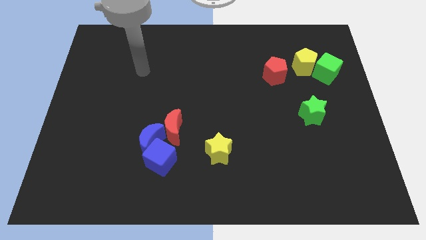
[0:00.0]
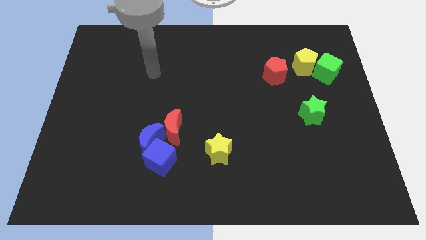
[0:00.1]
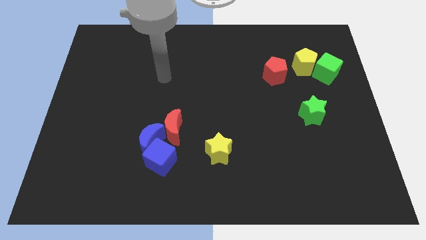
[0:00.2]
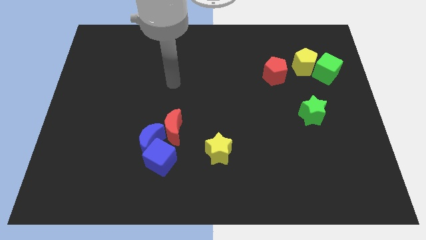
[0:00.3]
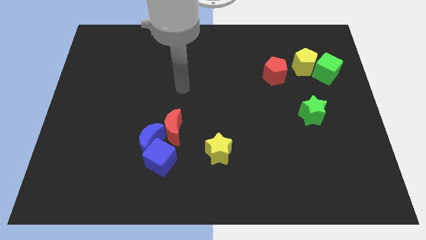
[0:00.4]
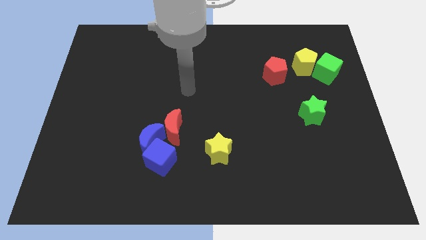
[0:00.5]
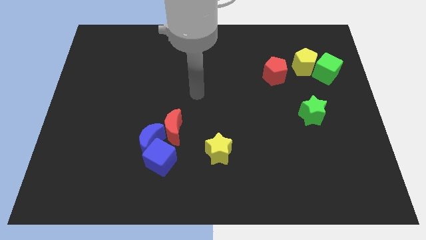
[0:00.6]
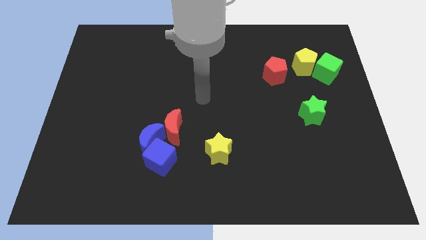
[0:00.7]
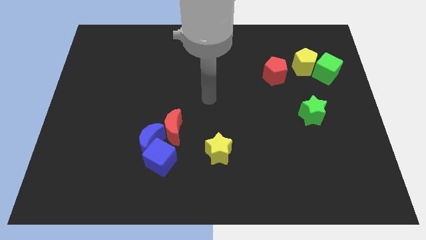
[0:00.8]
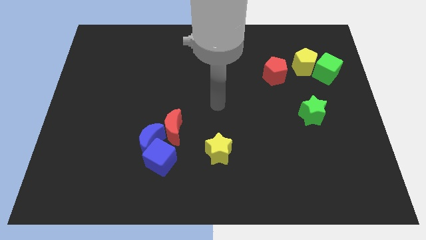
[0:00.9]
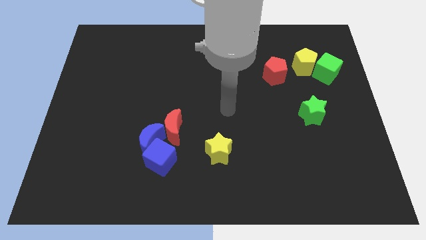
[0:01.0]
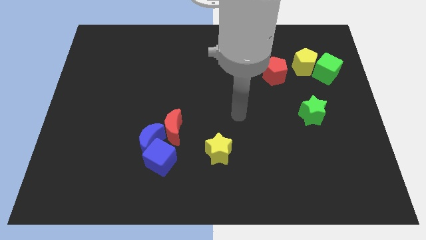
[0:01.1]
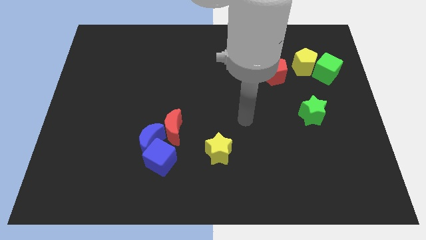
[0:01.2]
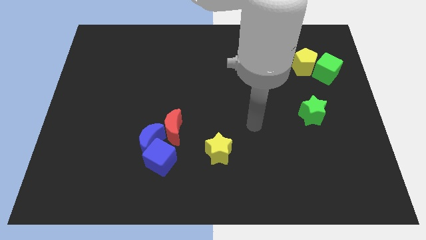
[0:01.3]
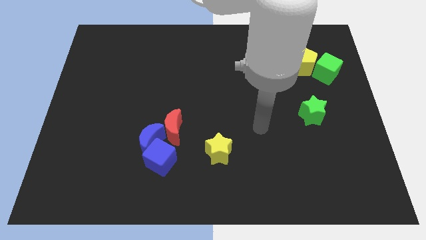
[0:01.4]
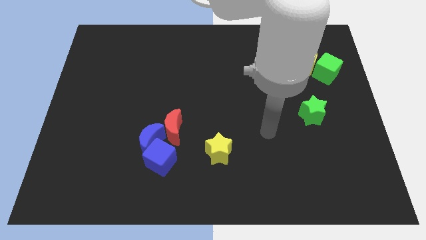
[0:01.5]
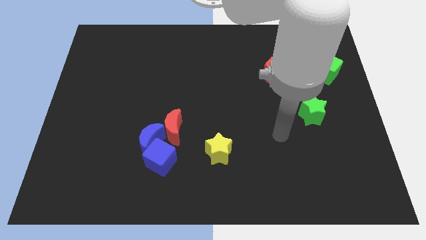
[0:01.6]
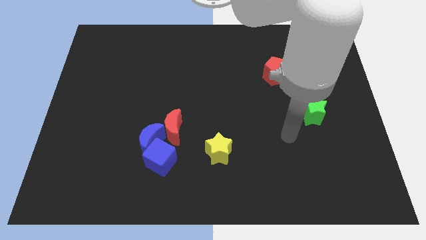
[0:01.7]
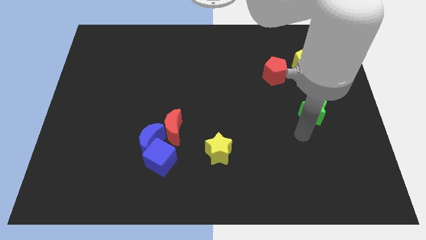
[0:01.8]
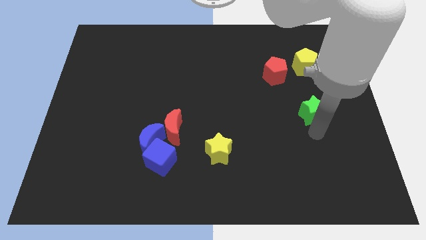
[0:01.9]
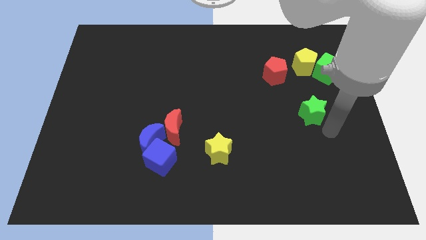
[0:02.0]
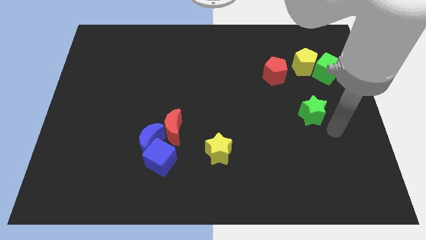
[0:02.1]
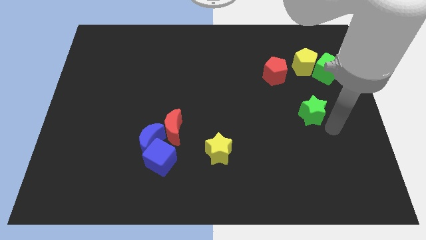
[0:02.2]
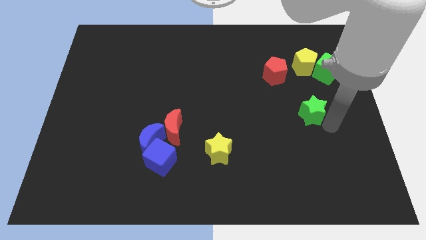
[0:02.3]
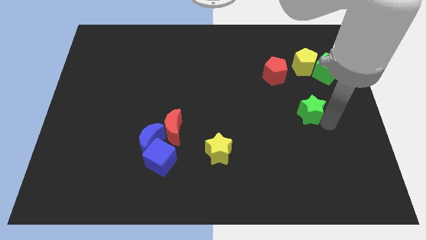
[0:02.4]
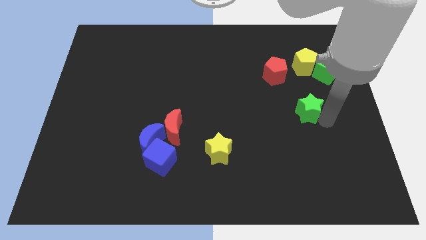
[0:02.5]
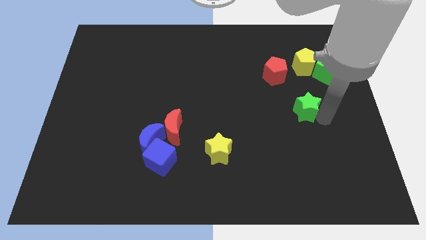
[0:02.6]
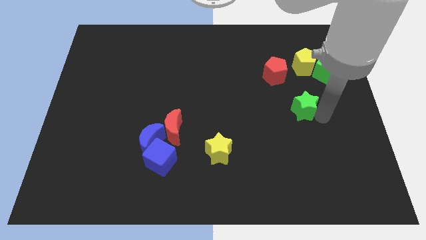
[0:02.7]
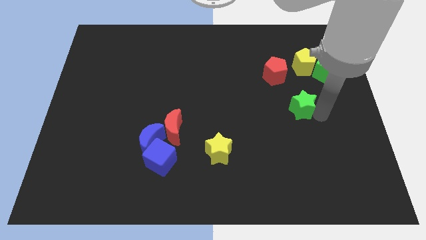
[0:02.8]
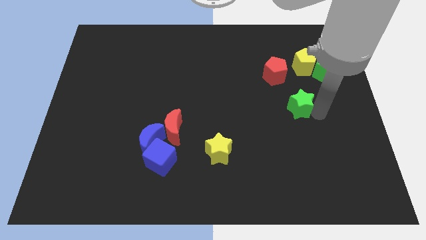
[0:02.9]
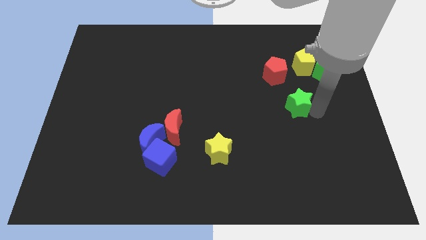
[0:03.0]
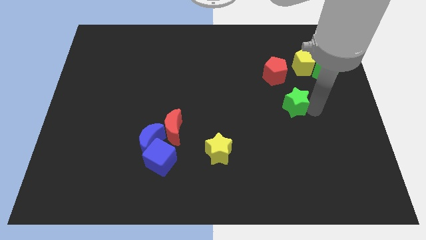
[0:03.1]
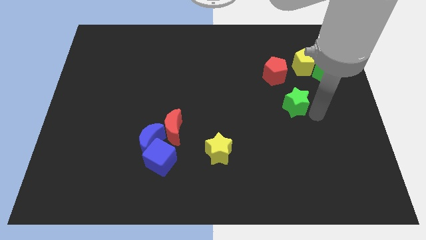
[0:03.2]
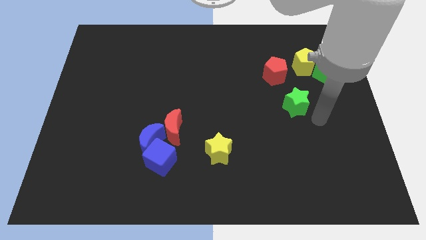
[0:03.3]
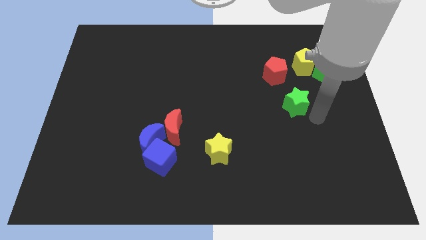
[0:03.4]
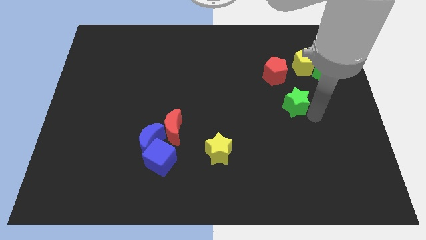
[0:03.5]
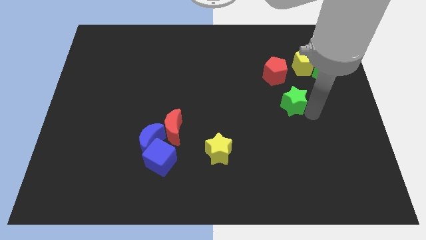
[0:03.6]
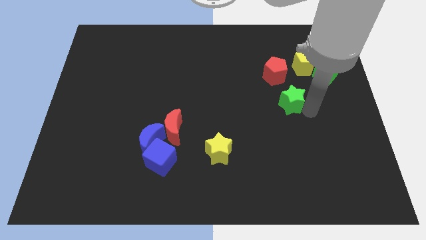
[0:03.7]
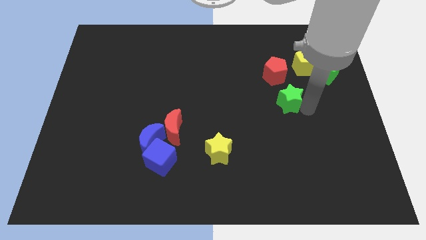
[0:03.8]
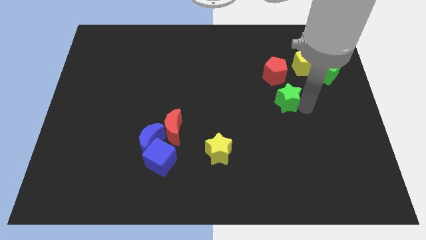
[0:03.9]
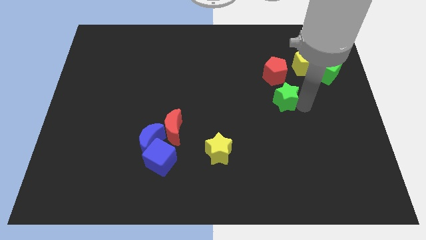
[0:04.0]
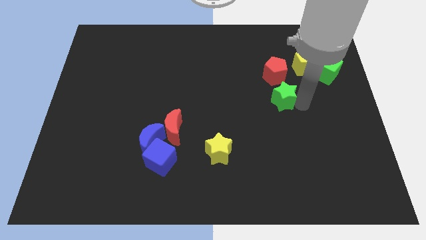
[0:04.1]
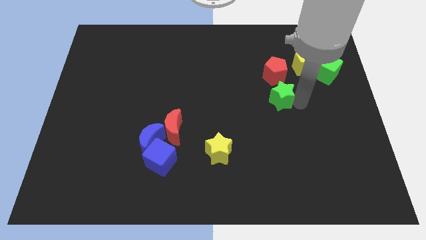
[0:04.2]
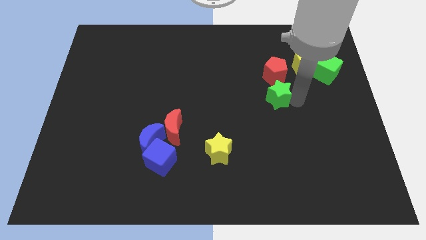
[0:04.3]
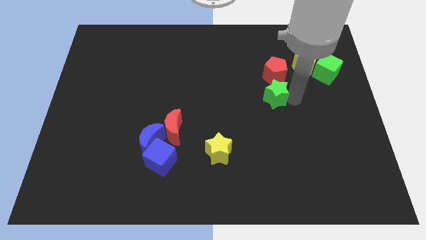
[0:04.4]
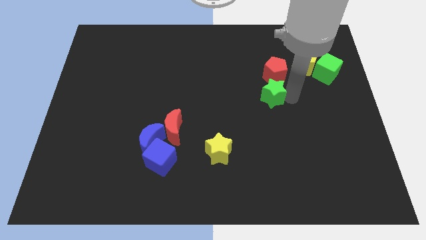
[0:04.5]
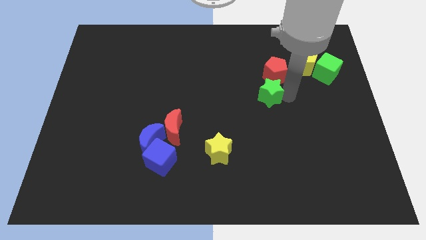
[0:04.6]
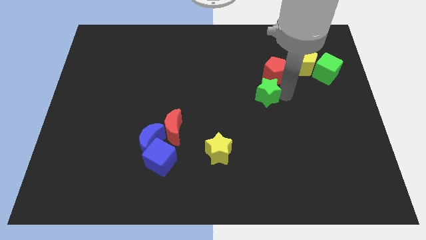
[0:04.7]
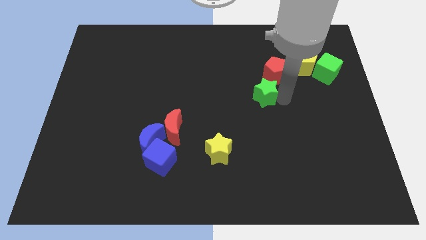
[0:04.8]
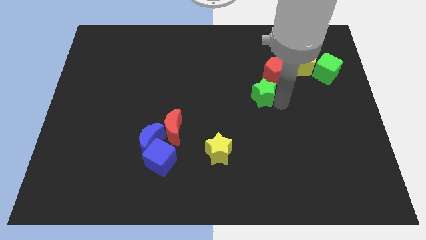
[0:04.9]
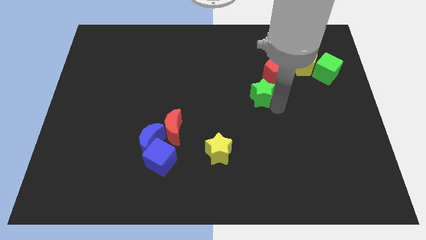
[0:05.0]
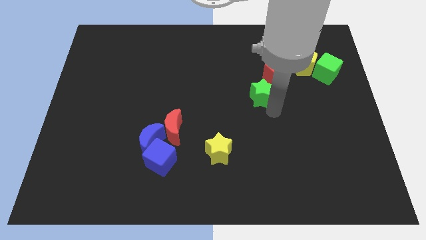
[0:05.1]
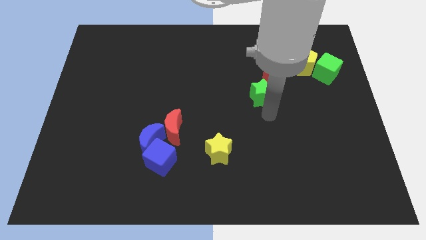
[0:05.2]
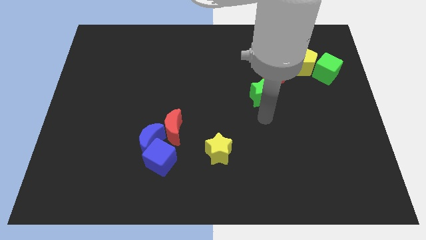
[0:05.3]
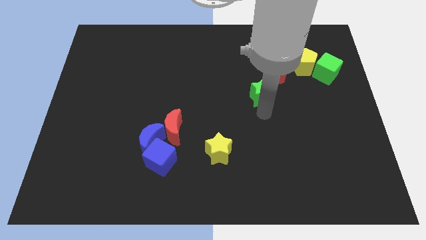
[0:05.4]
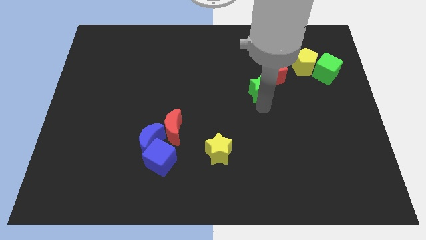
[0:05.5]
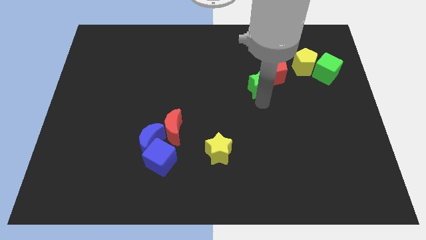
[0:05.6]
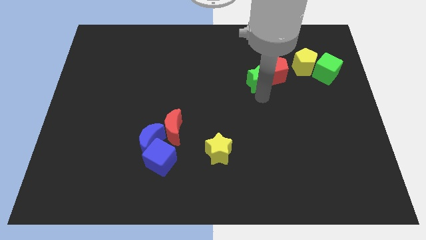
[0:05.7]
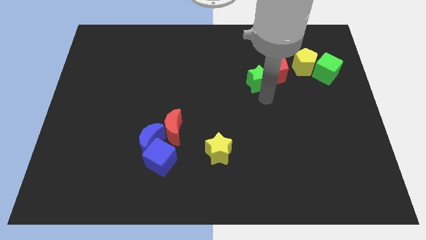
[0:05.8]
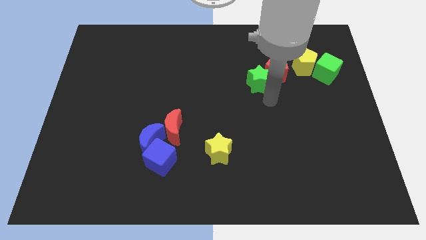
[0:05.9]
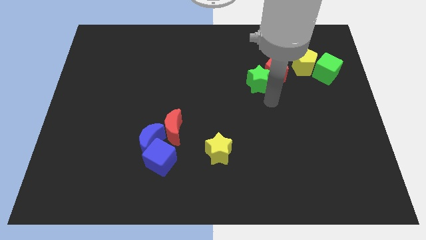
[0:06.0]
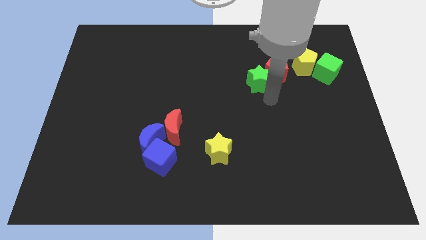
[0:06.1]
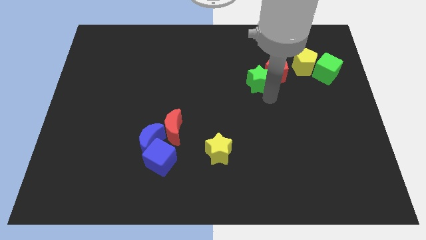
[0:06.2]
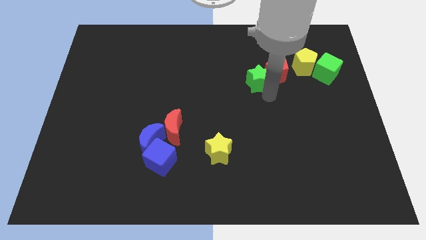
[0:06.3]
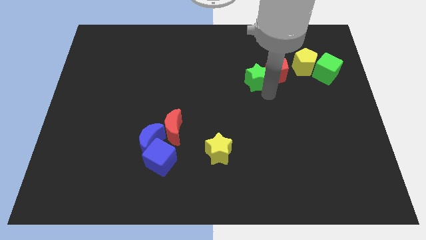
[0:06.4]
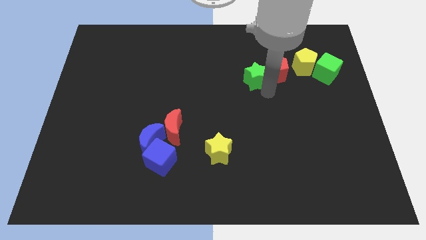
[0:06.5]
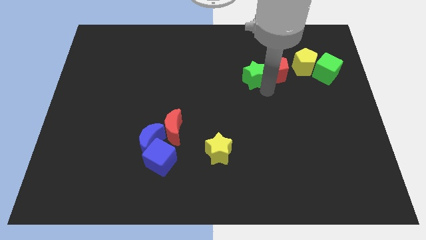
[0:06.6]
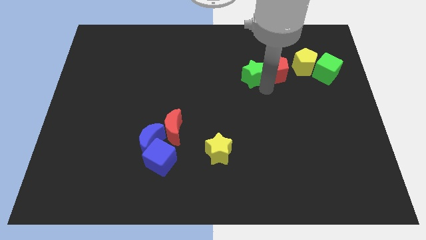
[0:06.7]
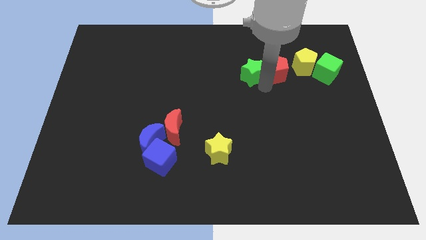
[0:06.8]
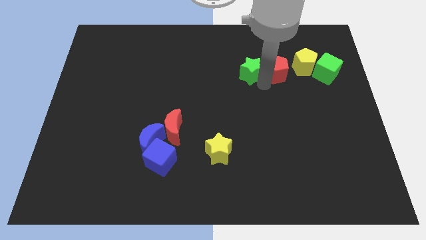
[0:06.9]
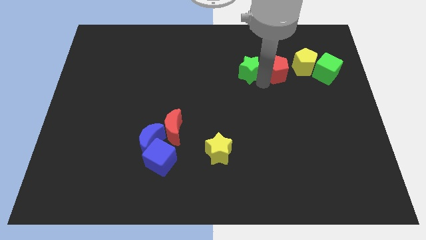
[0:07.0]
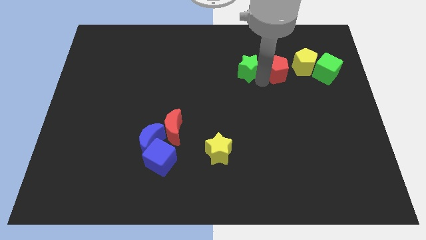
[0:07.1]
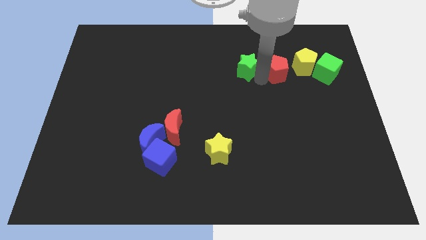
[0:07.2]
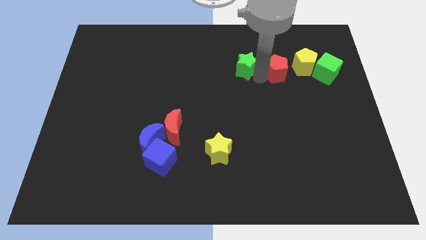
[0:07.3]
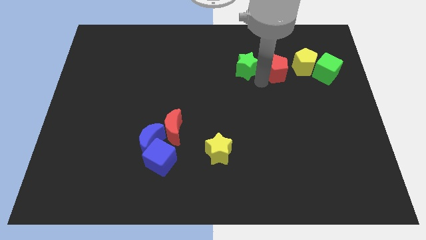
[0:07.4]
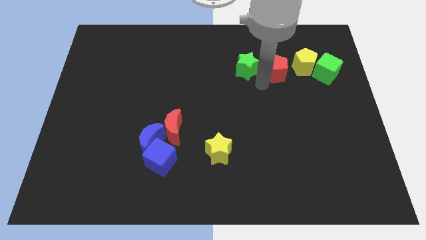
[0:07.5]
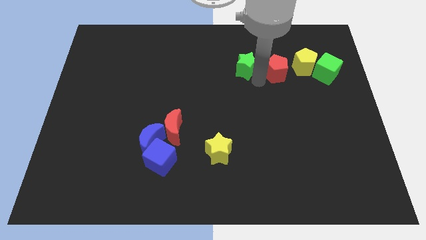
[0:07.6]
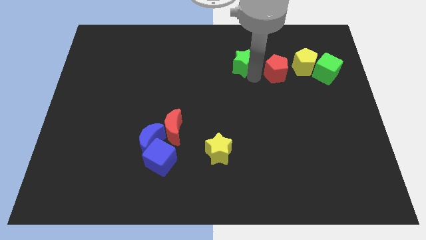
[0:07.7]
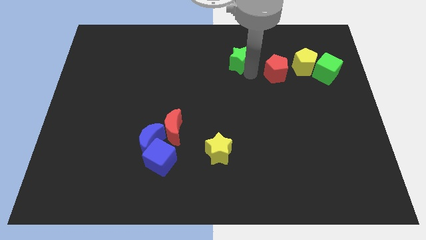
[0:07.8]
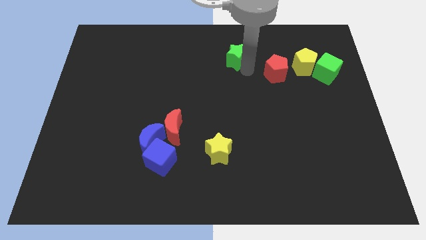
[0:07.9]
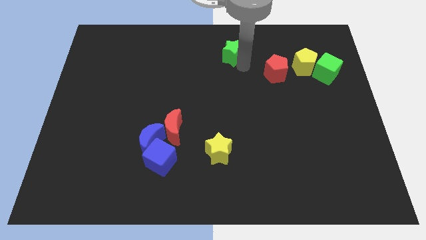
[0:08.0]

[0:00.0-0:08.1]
move the green star to the towards your base
